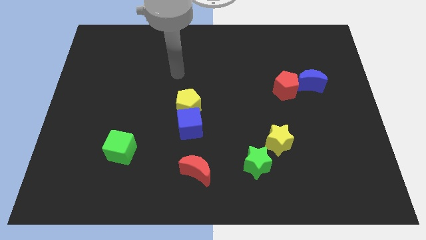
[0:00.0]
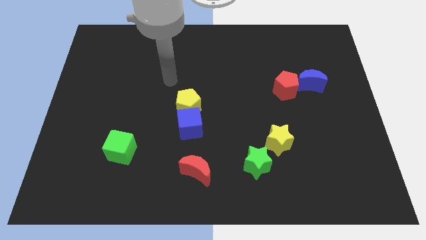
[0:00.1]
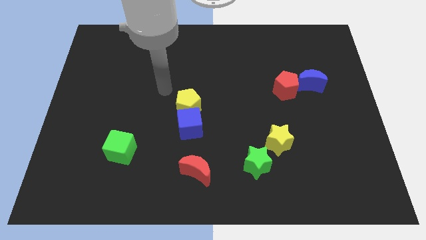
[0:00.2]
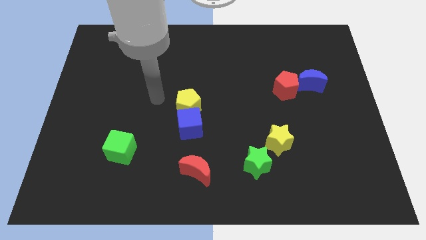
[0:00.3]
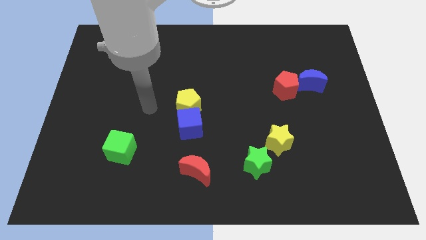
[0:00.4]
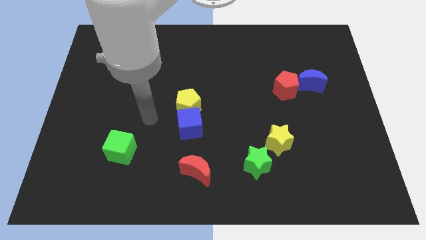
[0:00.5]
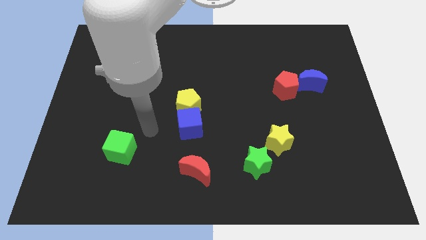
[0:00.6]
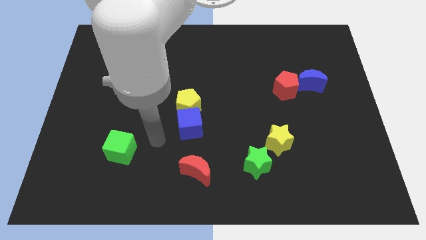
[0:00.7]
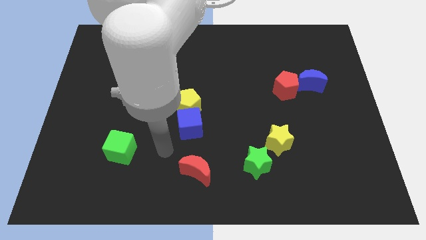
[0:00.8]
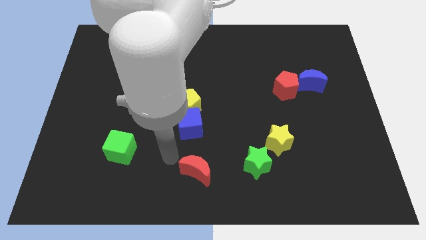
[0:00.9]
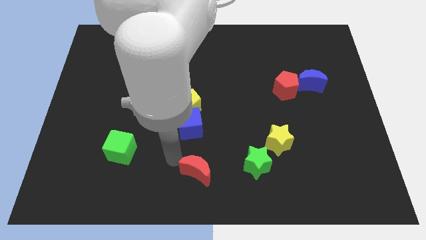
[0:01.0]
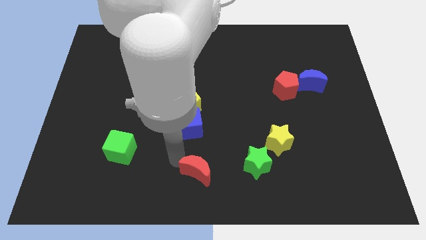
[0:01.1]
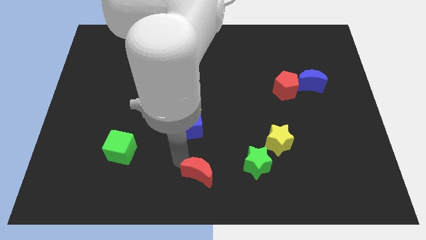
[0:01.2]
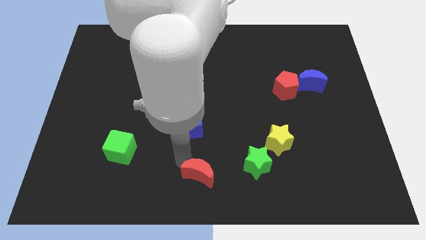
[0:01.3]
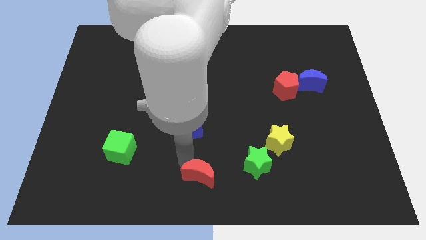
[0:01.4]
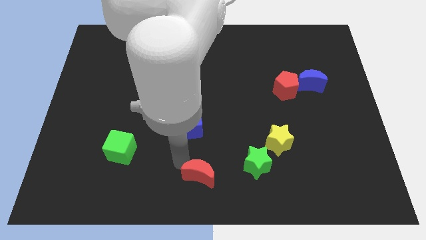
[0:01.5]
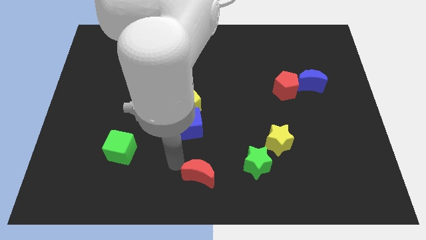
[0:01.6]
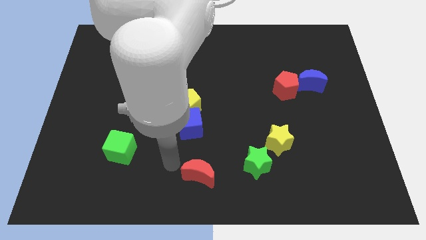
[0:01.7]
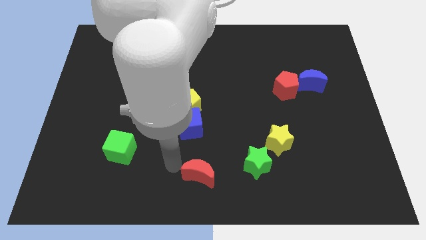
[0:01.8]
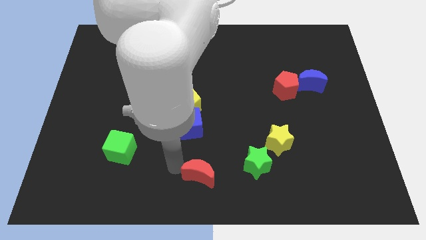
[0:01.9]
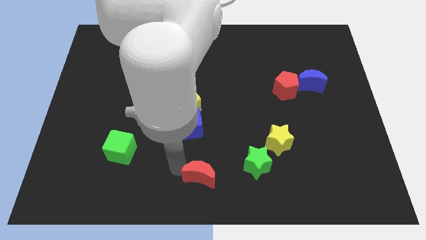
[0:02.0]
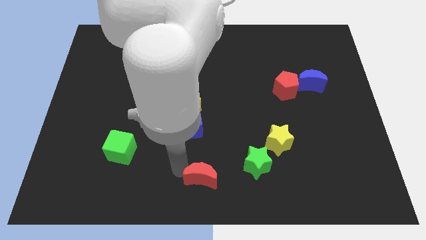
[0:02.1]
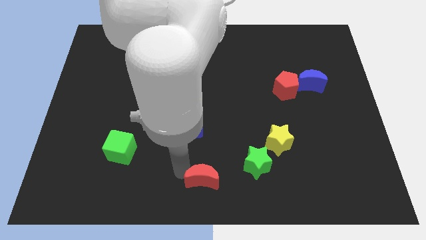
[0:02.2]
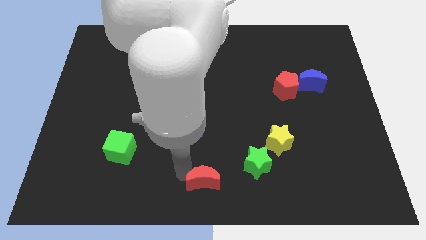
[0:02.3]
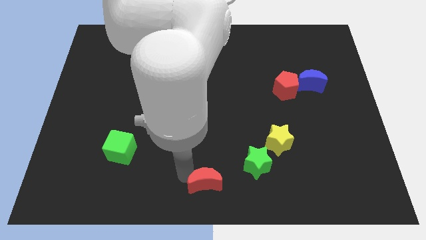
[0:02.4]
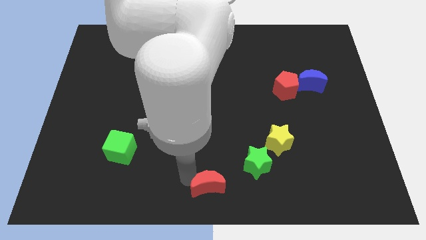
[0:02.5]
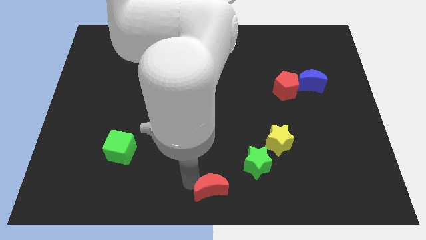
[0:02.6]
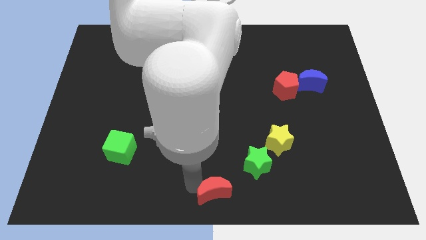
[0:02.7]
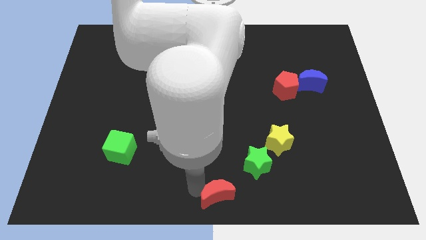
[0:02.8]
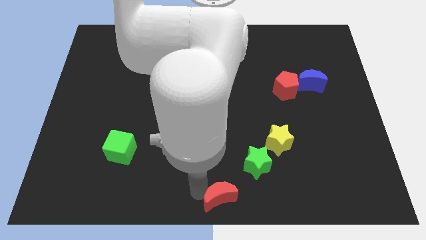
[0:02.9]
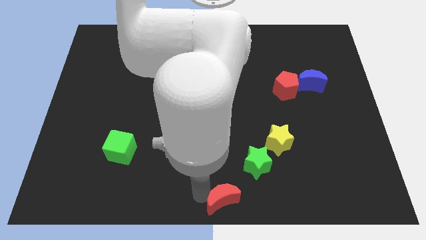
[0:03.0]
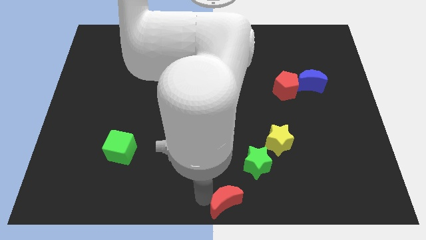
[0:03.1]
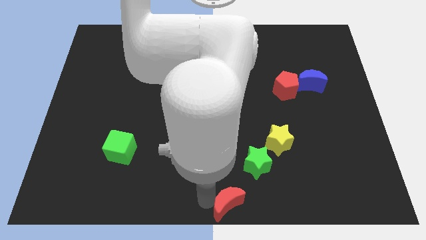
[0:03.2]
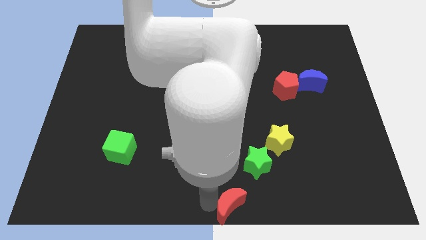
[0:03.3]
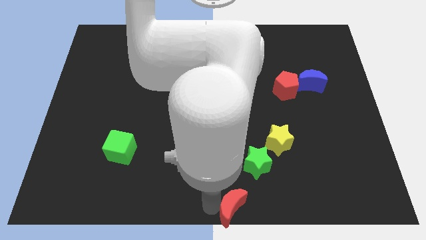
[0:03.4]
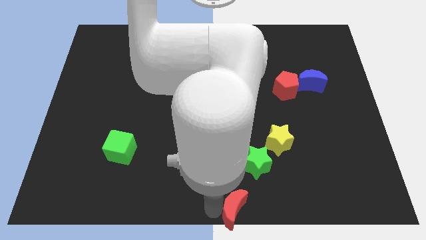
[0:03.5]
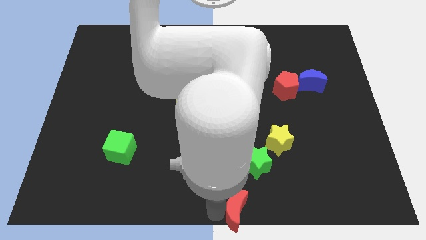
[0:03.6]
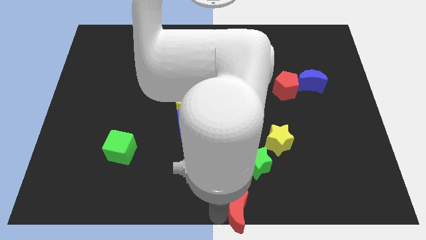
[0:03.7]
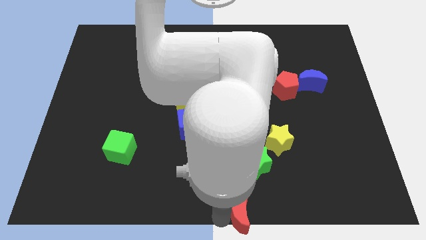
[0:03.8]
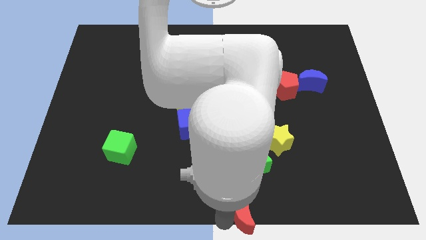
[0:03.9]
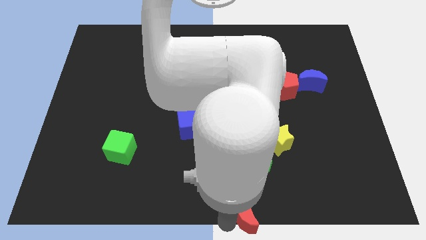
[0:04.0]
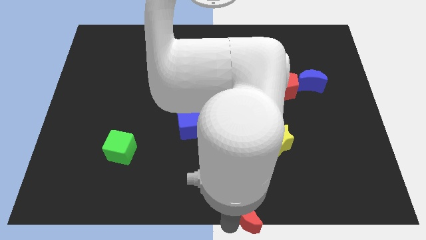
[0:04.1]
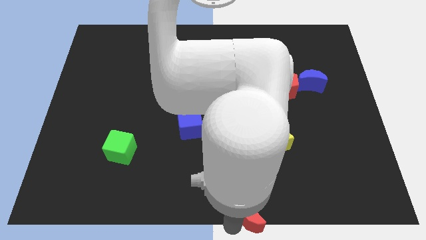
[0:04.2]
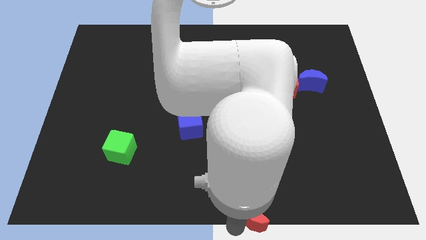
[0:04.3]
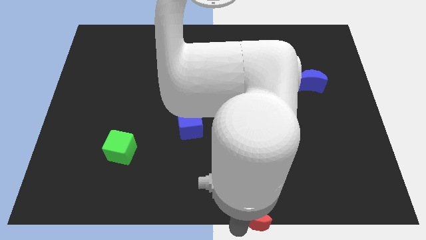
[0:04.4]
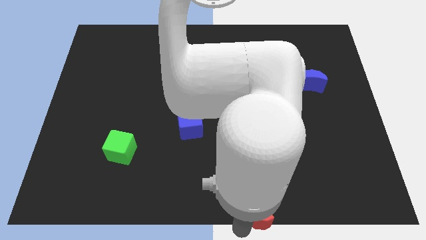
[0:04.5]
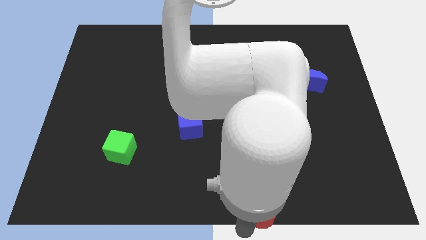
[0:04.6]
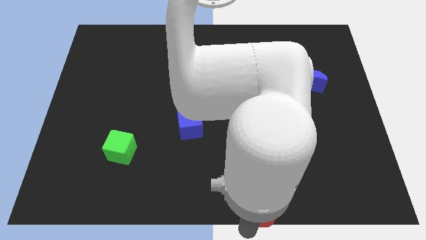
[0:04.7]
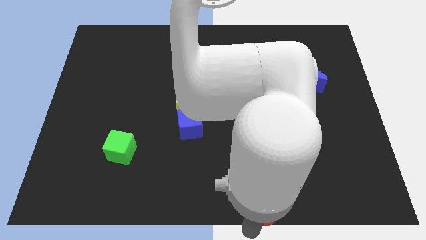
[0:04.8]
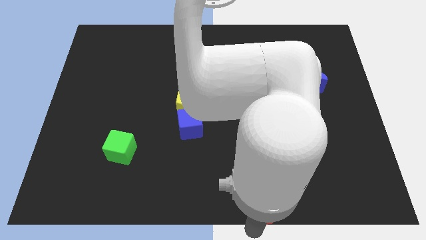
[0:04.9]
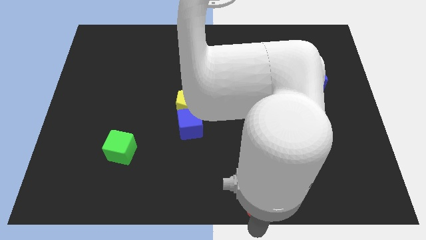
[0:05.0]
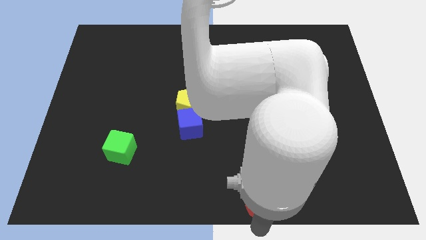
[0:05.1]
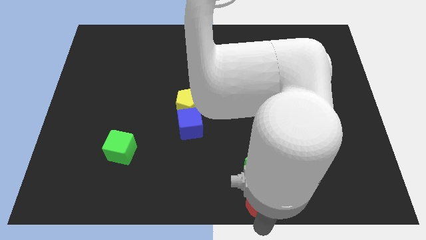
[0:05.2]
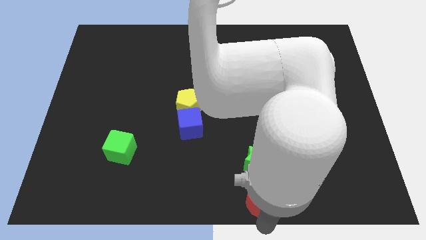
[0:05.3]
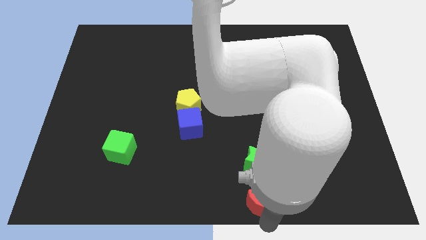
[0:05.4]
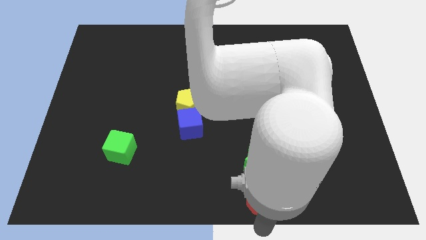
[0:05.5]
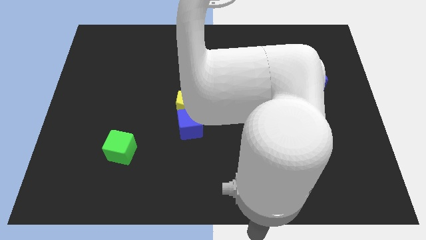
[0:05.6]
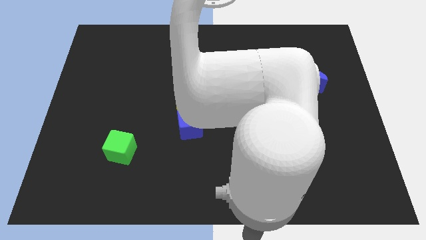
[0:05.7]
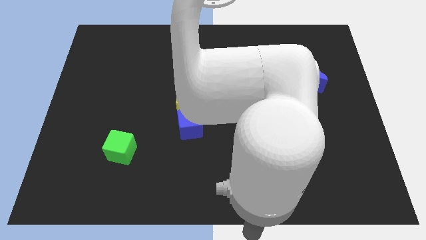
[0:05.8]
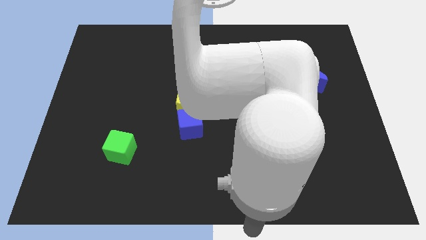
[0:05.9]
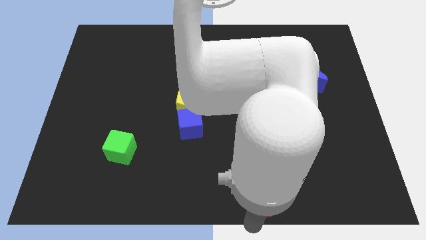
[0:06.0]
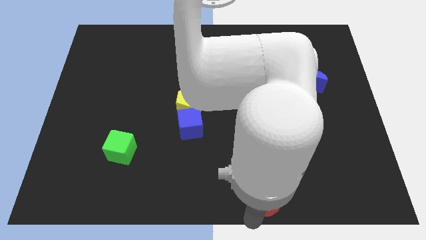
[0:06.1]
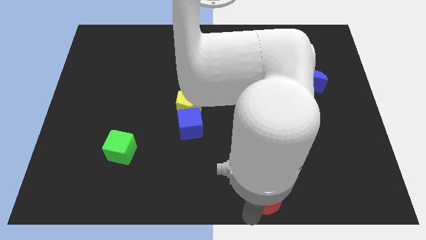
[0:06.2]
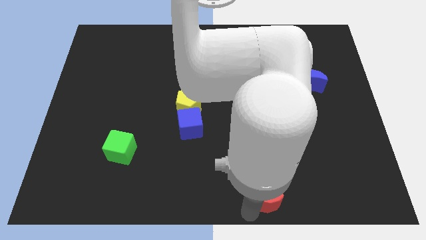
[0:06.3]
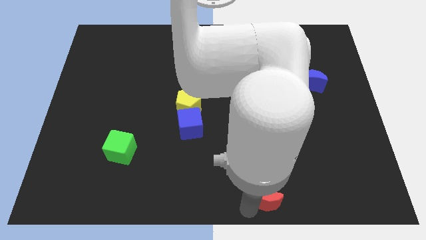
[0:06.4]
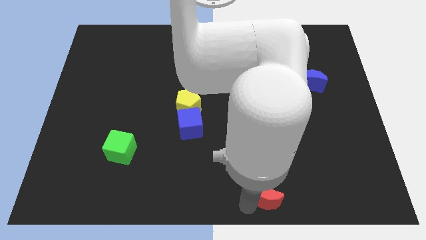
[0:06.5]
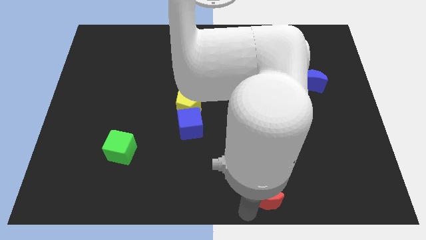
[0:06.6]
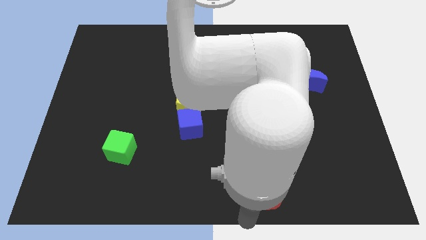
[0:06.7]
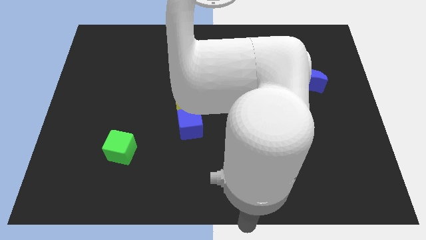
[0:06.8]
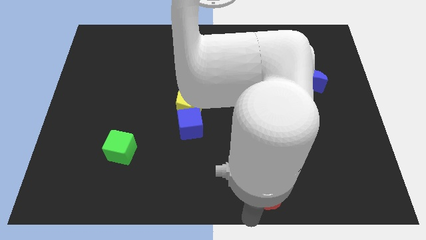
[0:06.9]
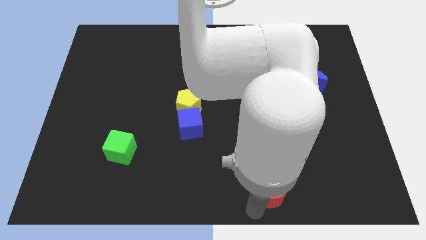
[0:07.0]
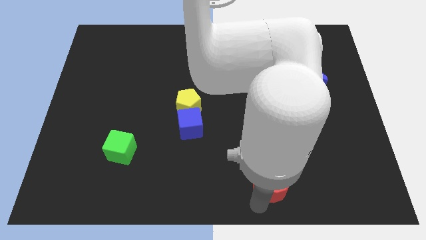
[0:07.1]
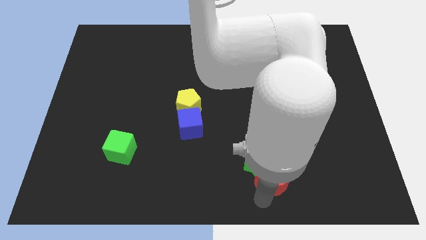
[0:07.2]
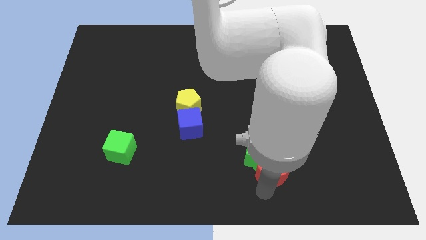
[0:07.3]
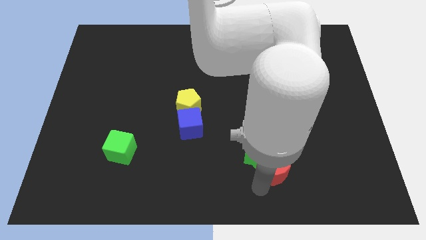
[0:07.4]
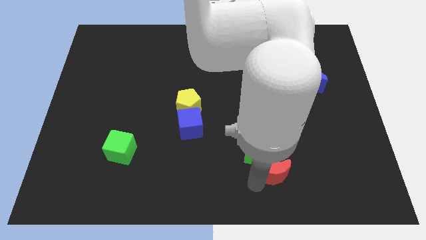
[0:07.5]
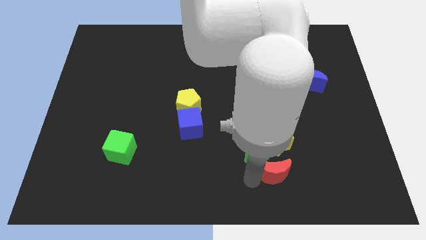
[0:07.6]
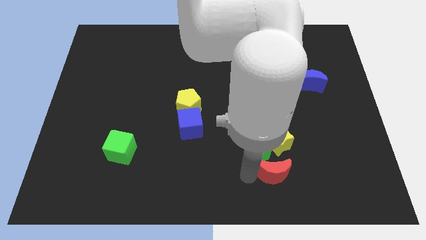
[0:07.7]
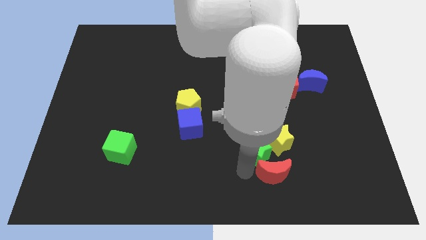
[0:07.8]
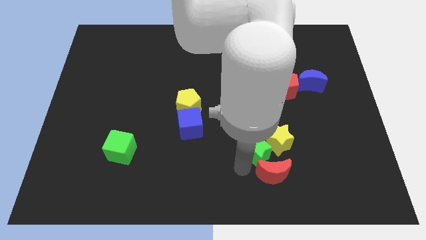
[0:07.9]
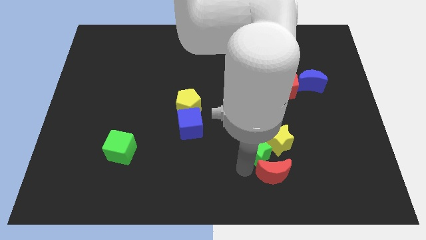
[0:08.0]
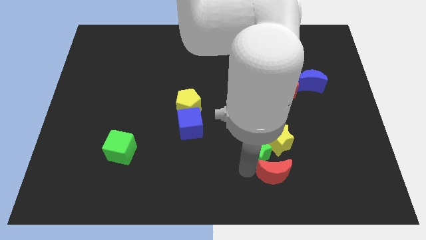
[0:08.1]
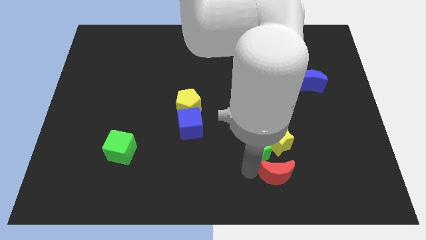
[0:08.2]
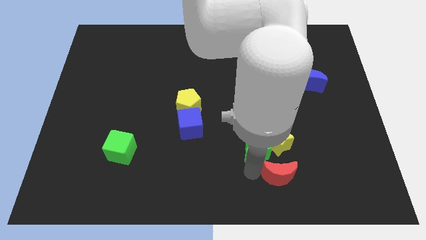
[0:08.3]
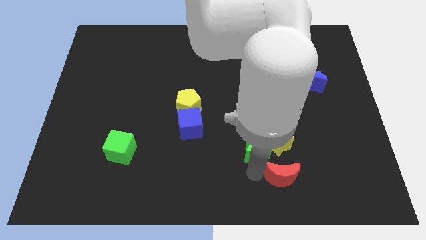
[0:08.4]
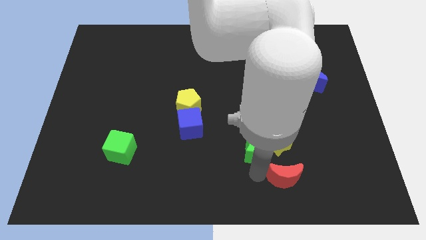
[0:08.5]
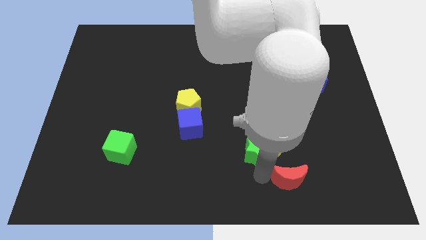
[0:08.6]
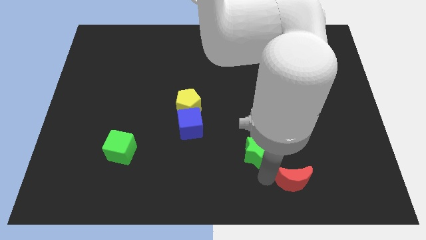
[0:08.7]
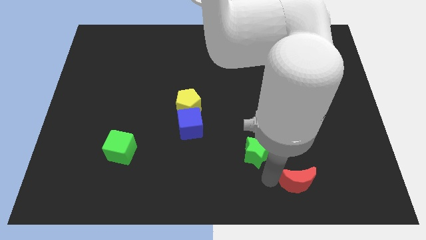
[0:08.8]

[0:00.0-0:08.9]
slide the red moon right
